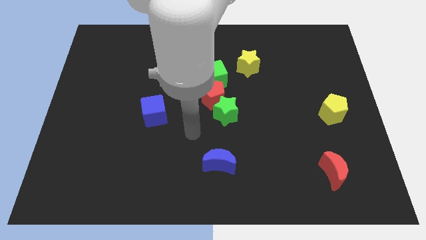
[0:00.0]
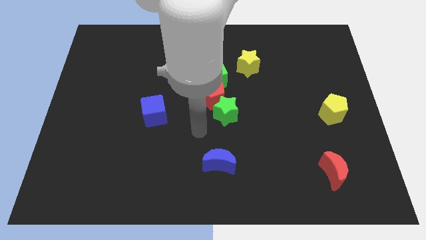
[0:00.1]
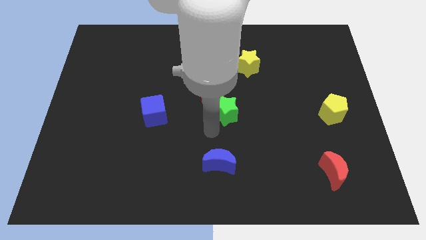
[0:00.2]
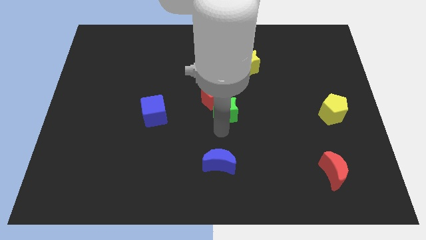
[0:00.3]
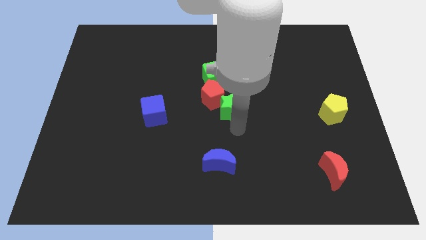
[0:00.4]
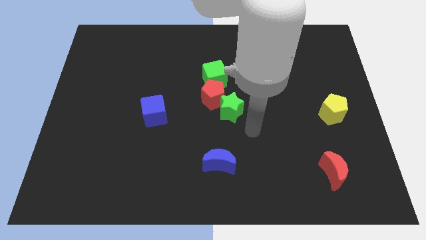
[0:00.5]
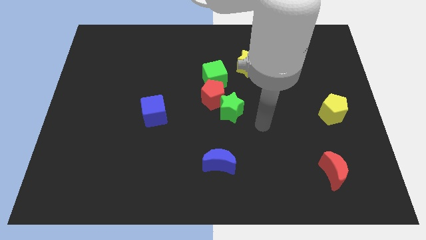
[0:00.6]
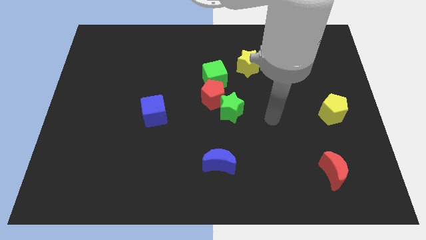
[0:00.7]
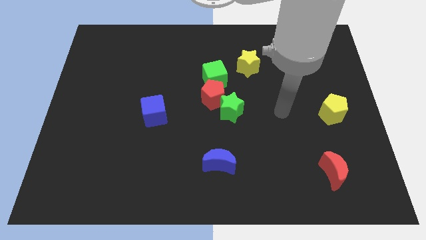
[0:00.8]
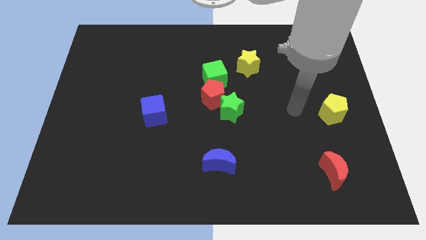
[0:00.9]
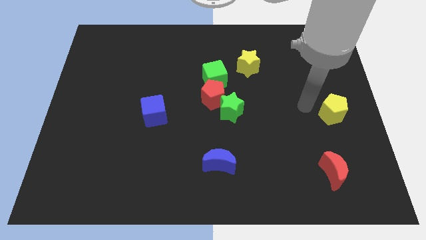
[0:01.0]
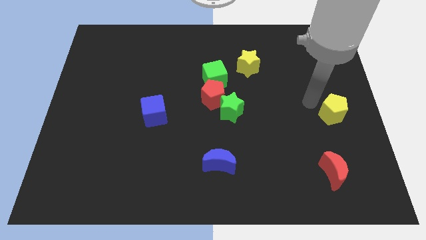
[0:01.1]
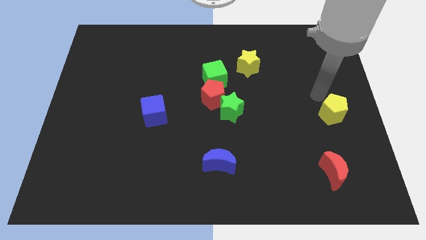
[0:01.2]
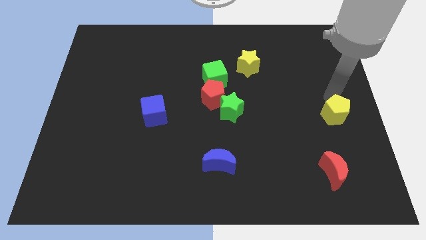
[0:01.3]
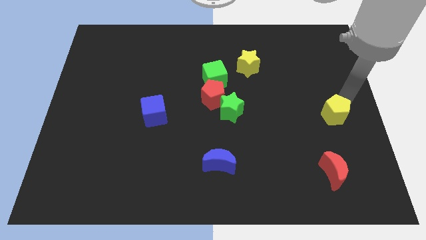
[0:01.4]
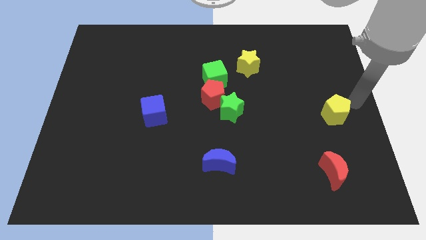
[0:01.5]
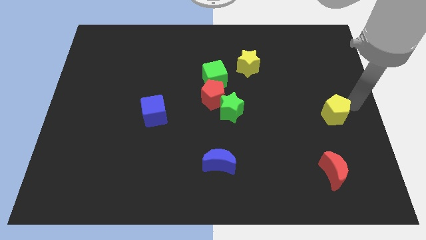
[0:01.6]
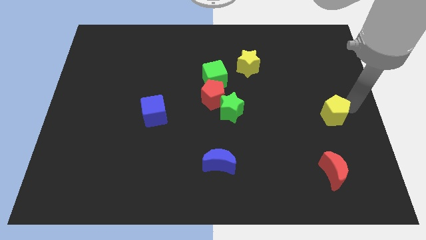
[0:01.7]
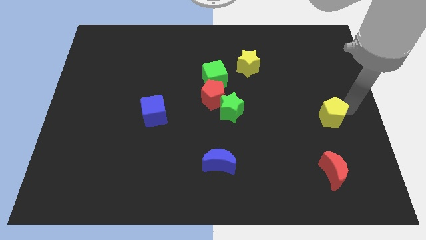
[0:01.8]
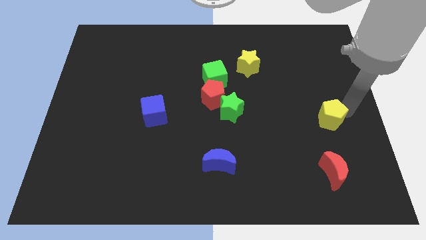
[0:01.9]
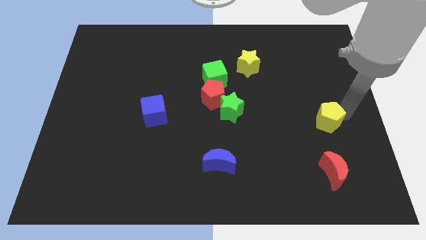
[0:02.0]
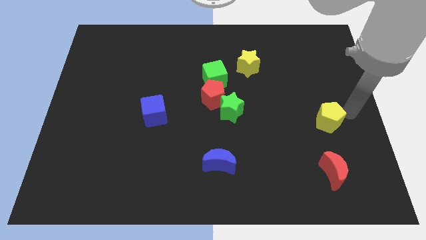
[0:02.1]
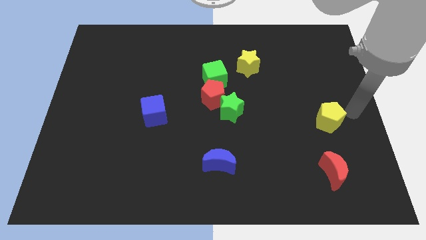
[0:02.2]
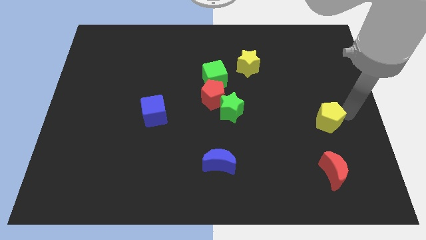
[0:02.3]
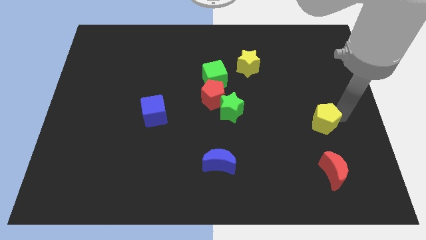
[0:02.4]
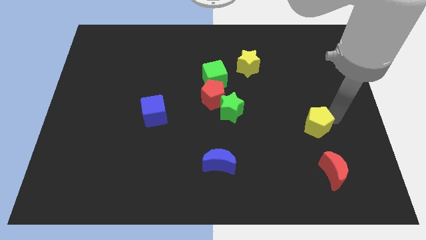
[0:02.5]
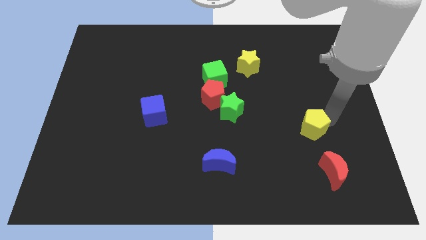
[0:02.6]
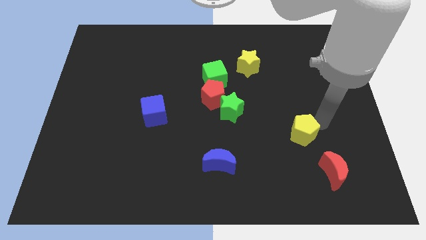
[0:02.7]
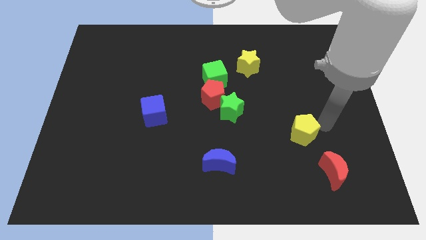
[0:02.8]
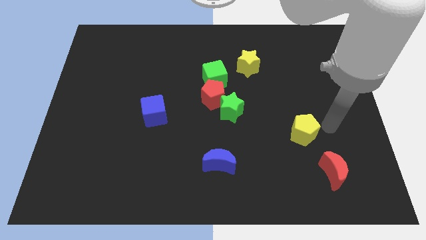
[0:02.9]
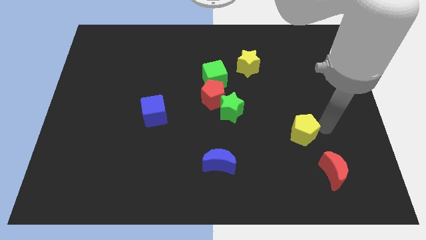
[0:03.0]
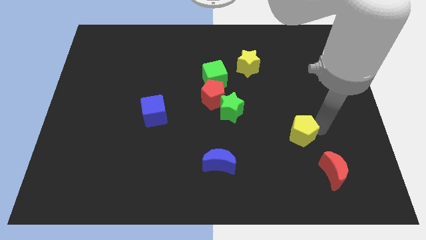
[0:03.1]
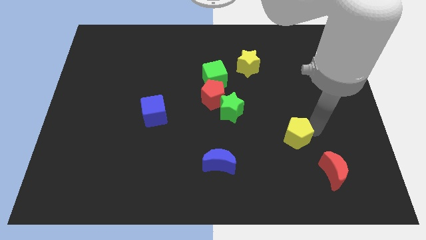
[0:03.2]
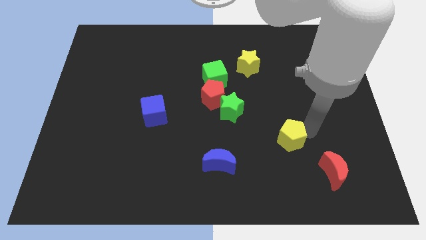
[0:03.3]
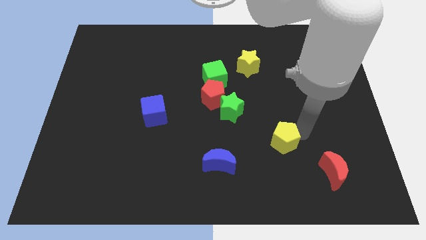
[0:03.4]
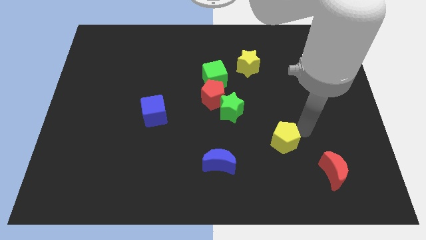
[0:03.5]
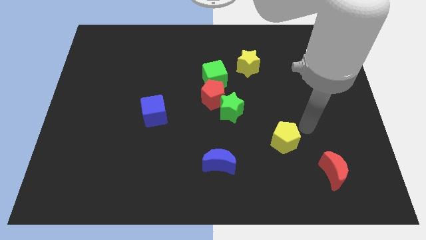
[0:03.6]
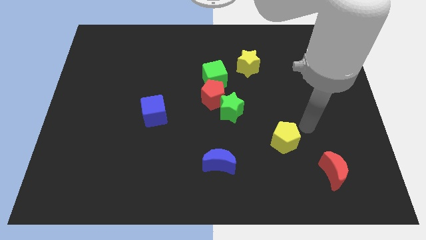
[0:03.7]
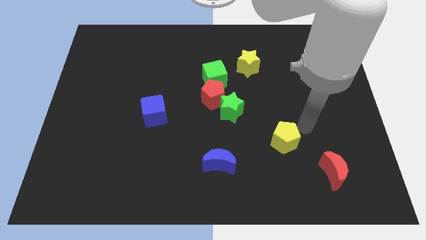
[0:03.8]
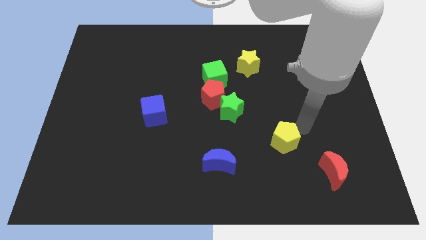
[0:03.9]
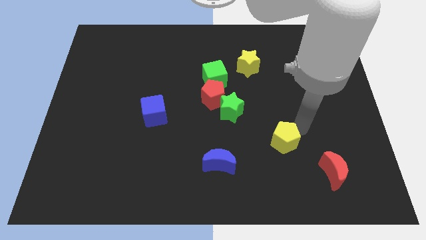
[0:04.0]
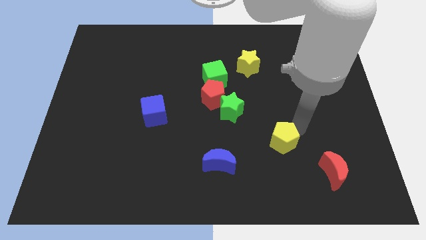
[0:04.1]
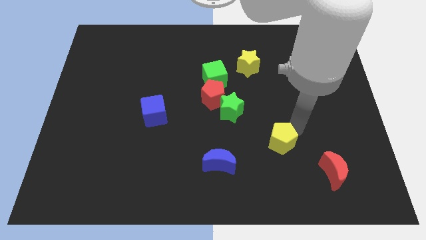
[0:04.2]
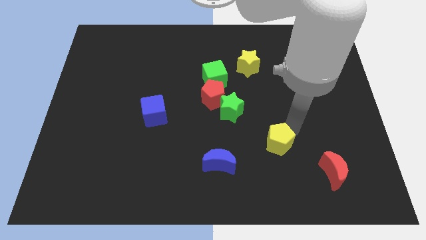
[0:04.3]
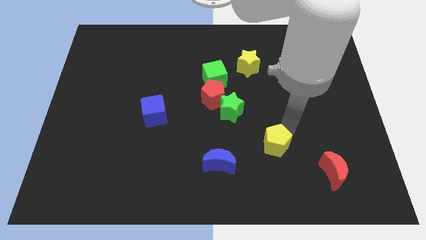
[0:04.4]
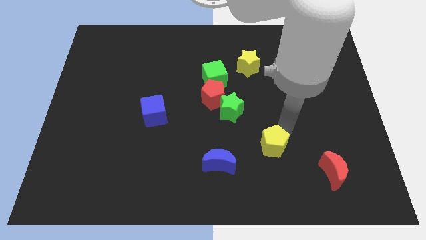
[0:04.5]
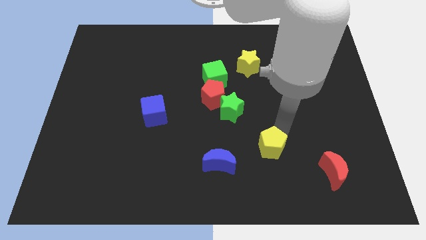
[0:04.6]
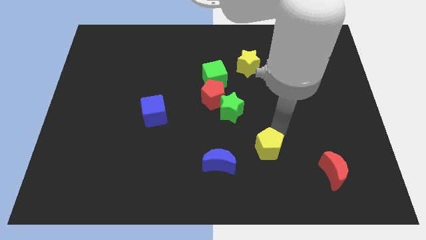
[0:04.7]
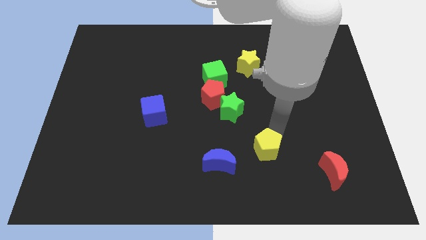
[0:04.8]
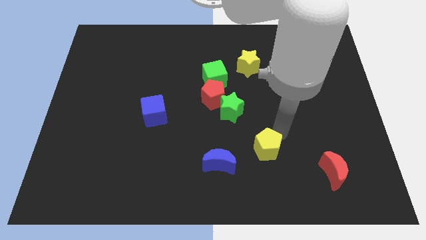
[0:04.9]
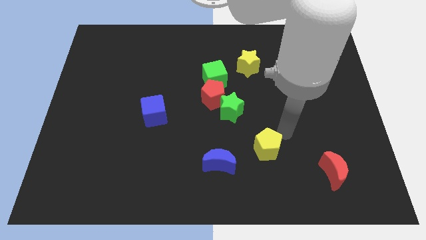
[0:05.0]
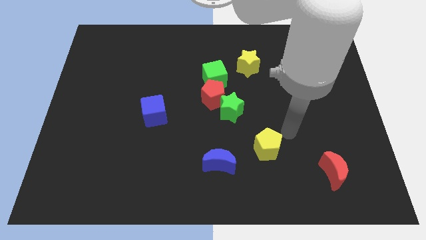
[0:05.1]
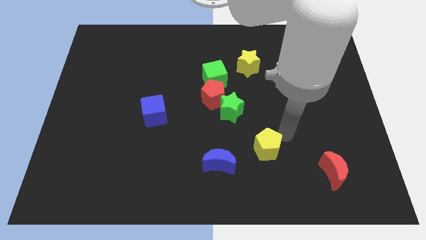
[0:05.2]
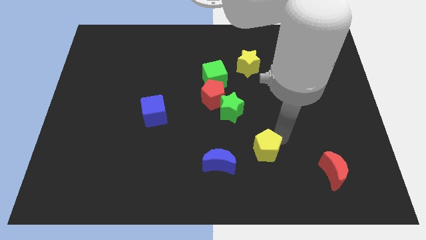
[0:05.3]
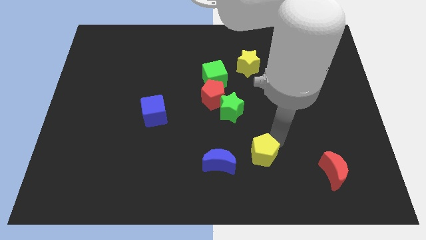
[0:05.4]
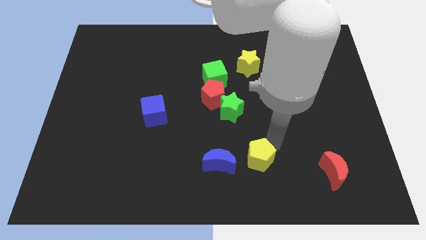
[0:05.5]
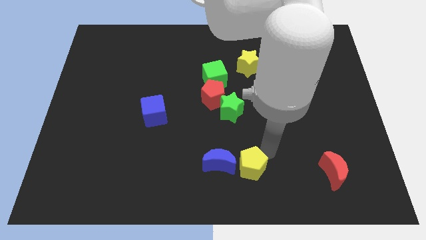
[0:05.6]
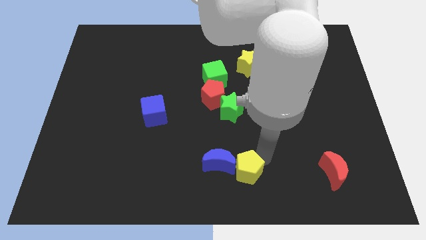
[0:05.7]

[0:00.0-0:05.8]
put the yellow pentagon next to the blue moon

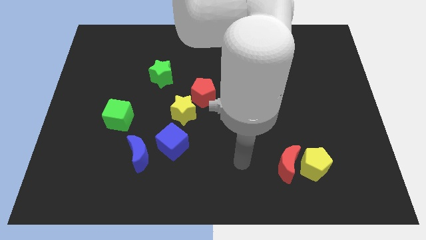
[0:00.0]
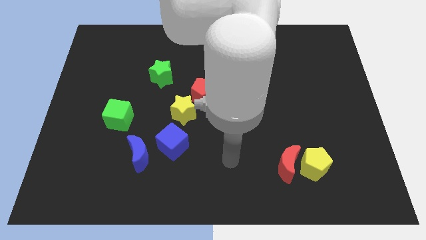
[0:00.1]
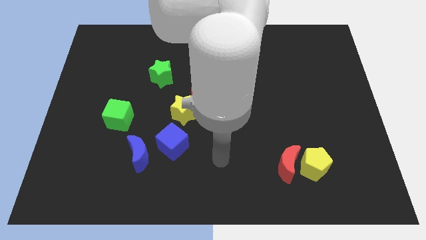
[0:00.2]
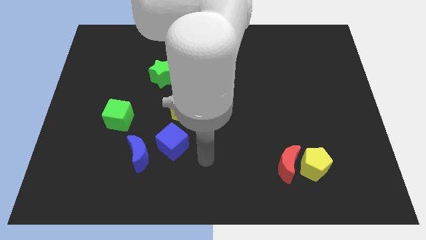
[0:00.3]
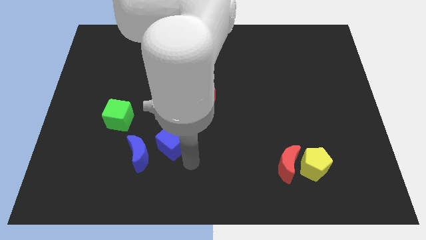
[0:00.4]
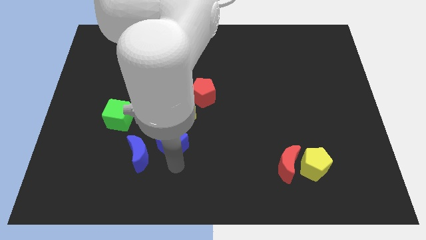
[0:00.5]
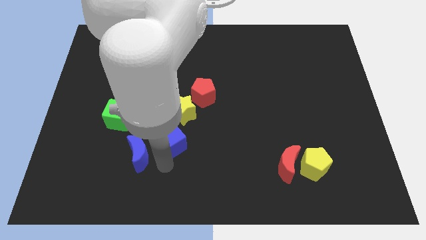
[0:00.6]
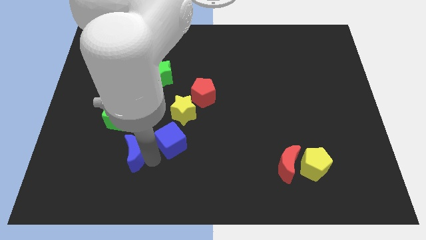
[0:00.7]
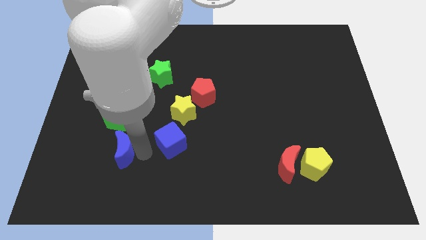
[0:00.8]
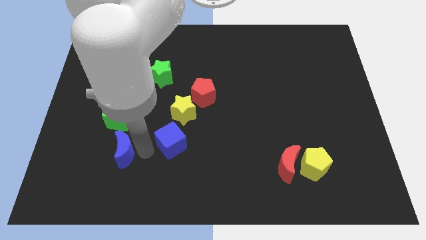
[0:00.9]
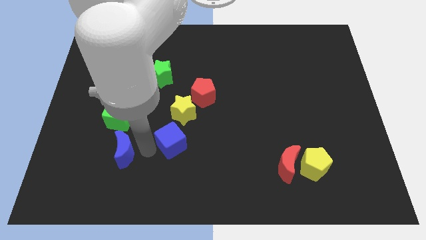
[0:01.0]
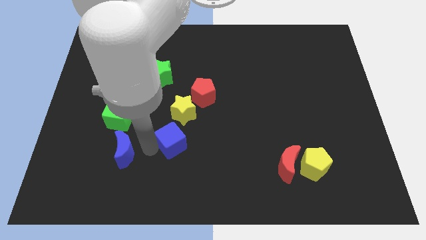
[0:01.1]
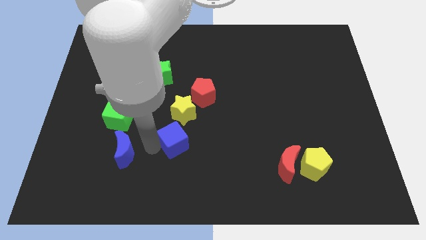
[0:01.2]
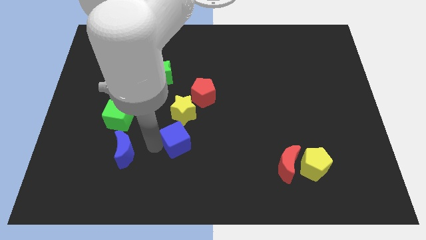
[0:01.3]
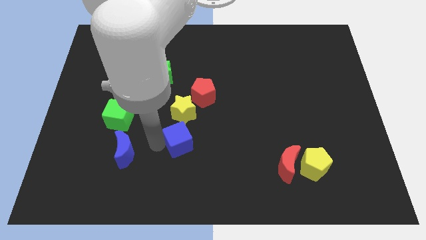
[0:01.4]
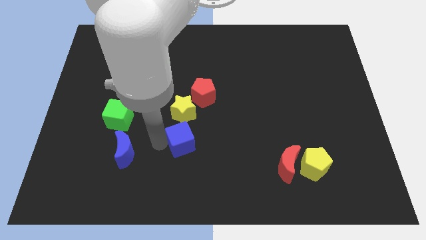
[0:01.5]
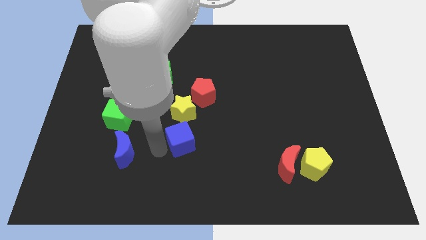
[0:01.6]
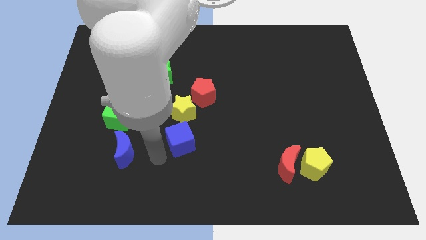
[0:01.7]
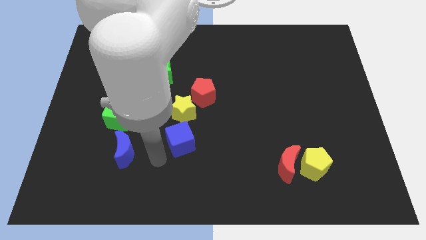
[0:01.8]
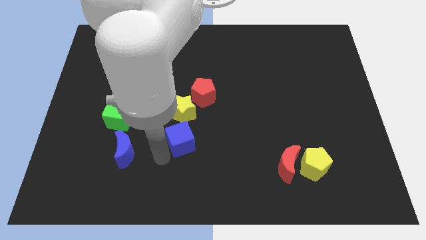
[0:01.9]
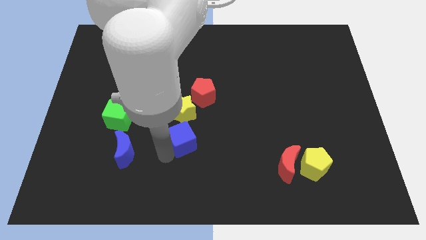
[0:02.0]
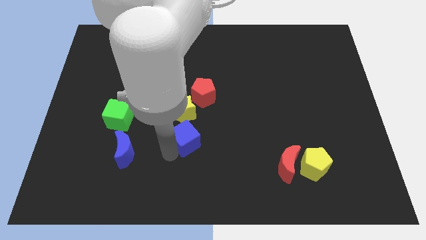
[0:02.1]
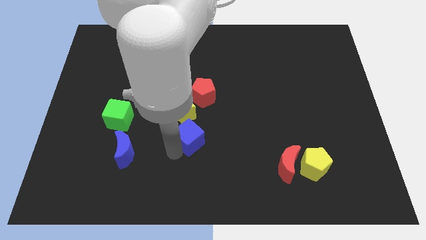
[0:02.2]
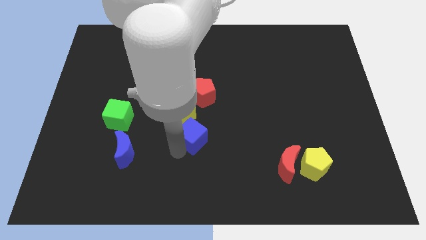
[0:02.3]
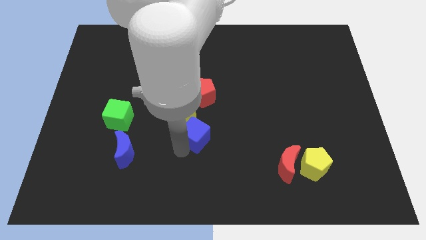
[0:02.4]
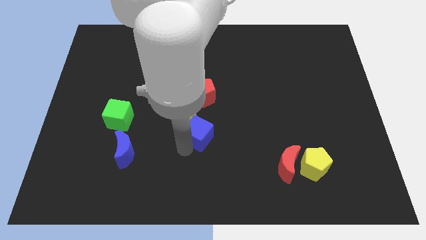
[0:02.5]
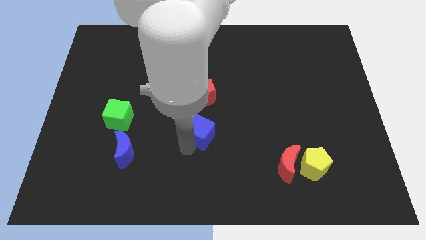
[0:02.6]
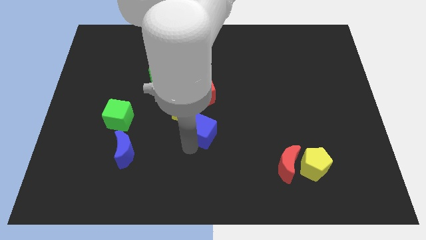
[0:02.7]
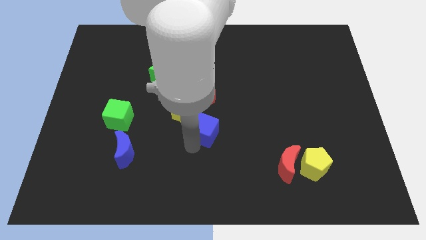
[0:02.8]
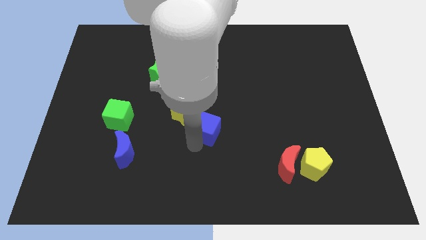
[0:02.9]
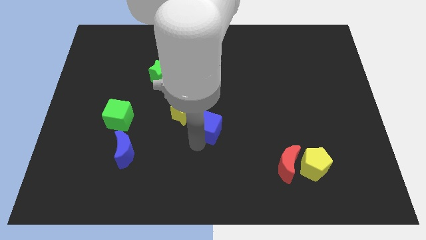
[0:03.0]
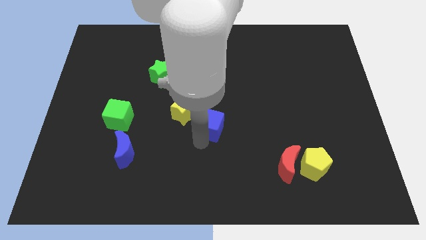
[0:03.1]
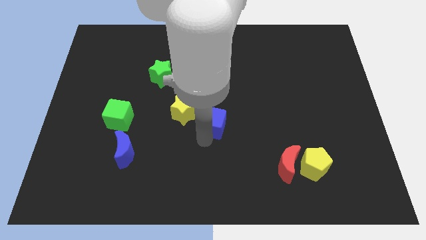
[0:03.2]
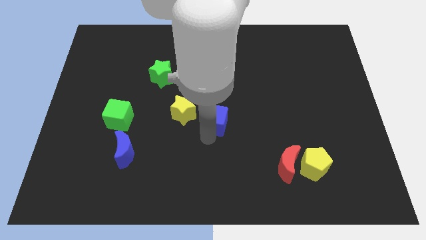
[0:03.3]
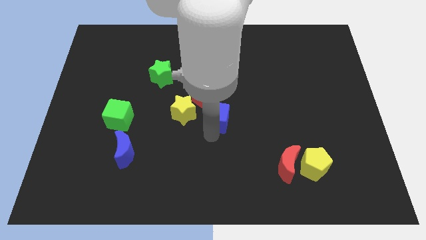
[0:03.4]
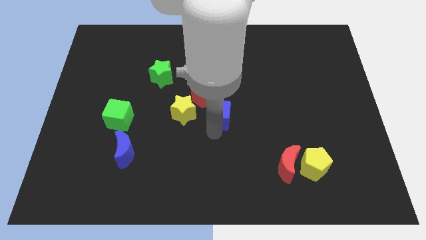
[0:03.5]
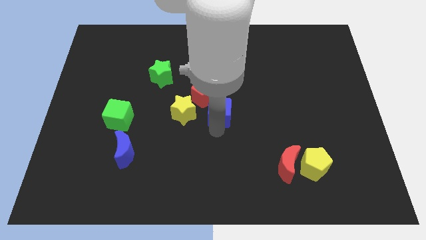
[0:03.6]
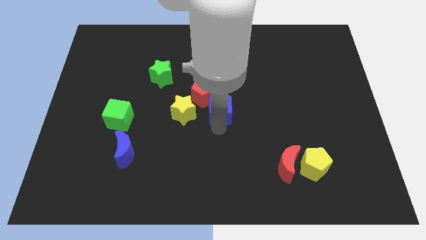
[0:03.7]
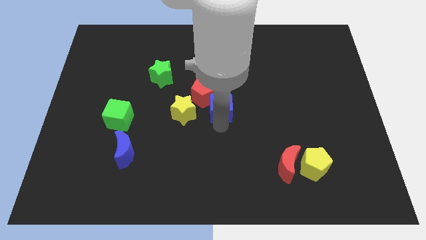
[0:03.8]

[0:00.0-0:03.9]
put the blue cube towards the red pentagon
